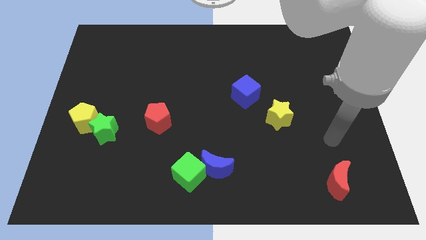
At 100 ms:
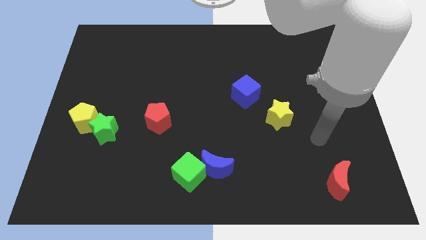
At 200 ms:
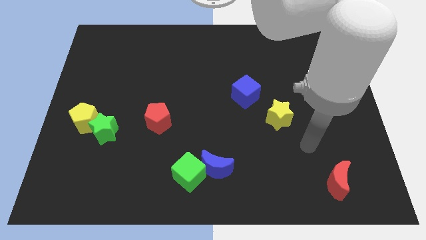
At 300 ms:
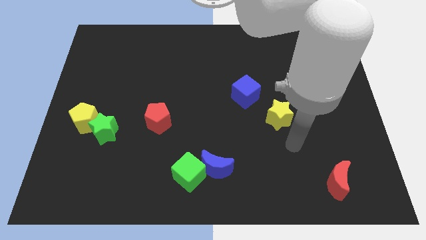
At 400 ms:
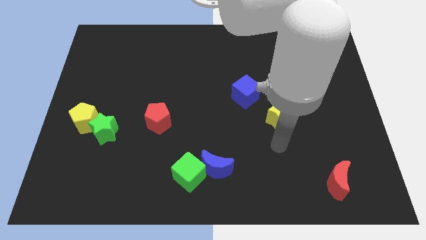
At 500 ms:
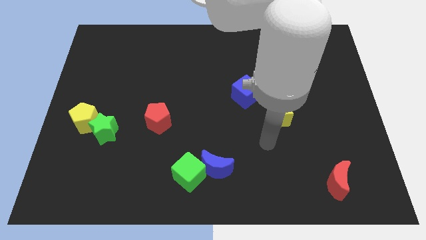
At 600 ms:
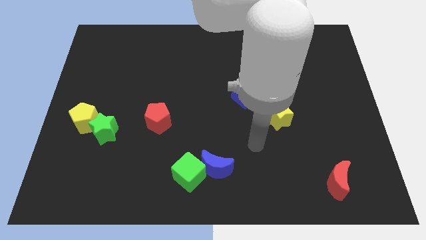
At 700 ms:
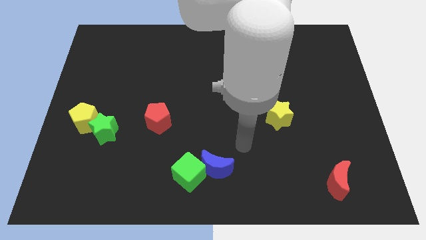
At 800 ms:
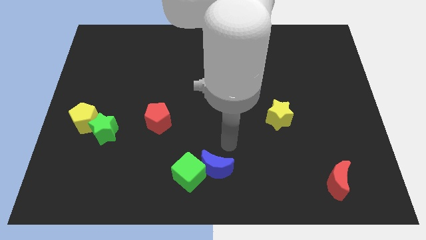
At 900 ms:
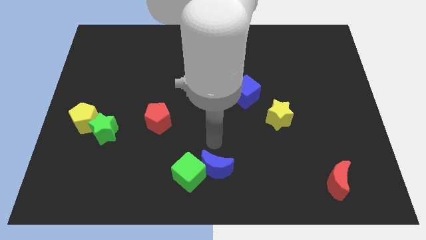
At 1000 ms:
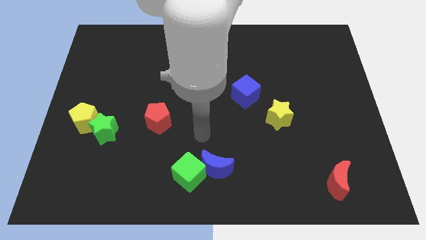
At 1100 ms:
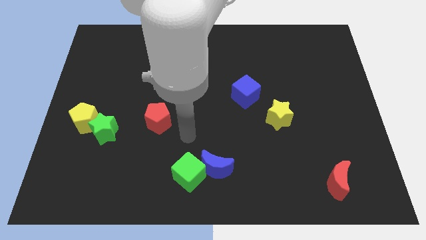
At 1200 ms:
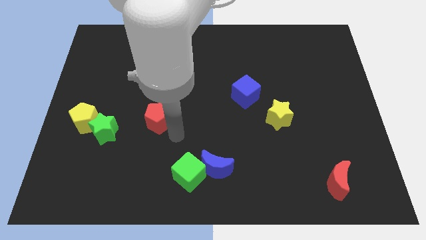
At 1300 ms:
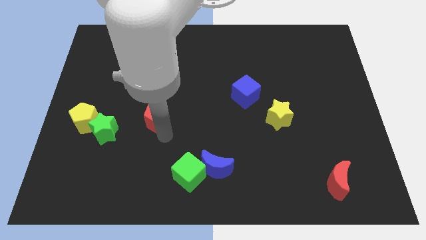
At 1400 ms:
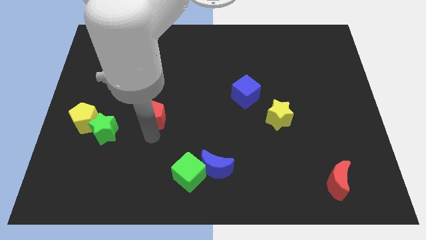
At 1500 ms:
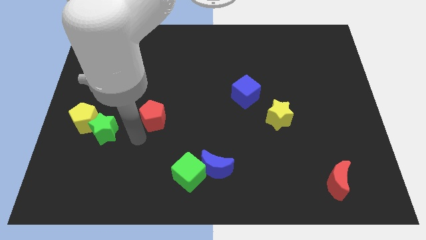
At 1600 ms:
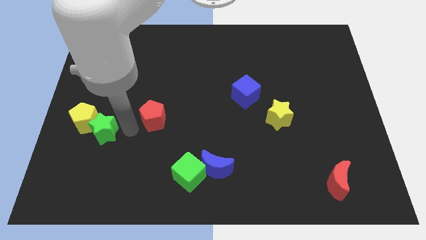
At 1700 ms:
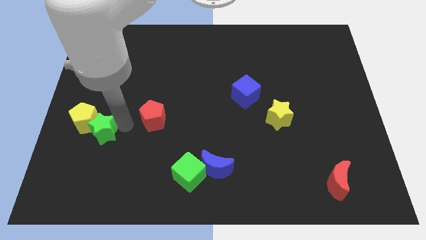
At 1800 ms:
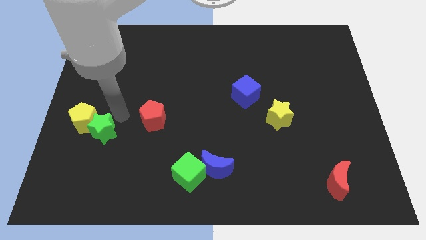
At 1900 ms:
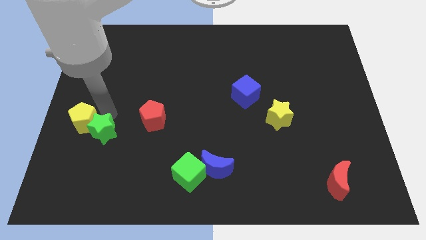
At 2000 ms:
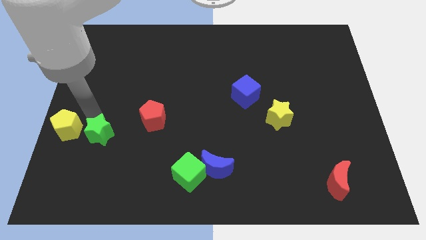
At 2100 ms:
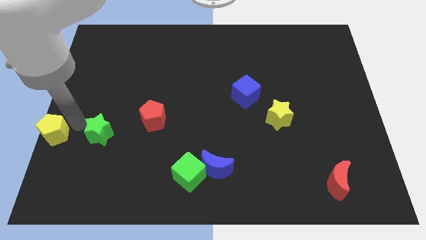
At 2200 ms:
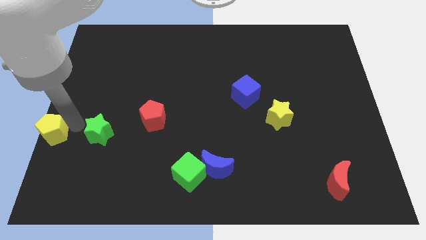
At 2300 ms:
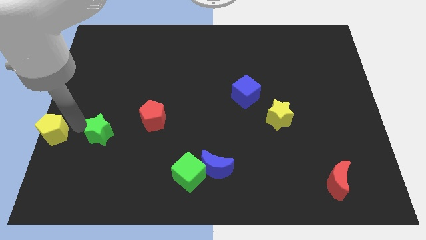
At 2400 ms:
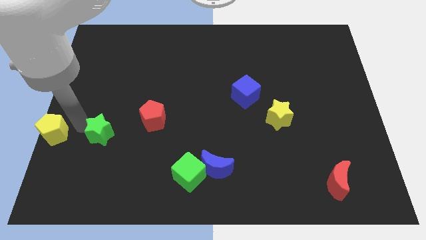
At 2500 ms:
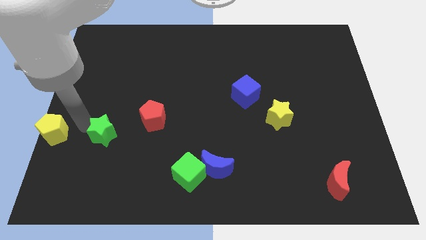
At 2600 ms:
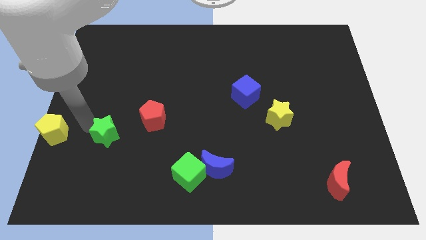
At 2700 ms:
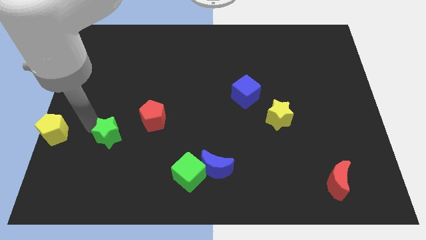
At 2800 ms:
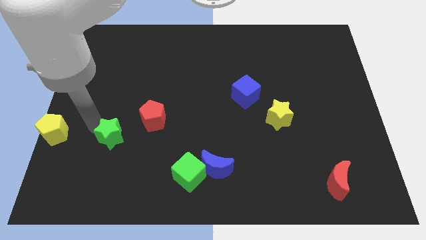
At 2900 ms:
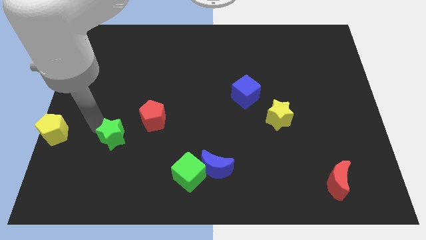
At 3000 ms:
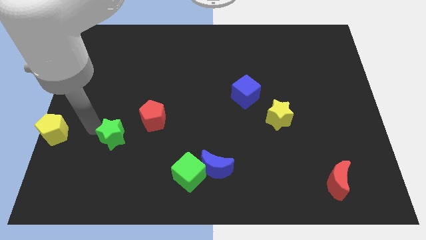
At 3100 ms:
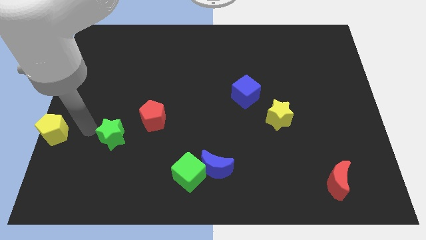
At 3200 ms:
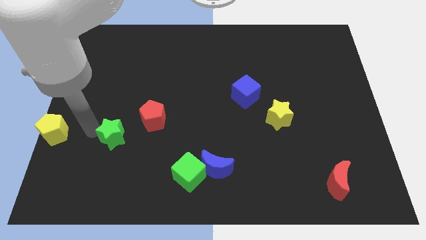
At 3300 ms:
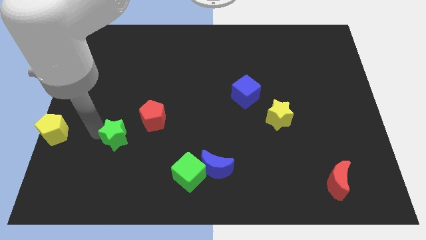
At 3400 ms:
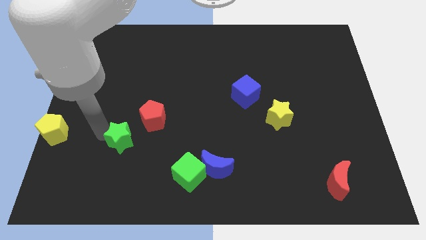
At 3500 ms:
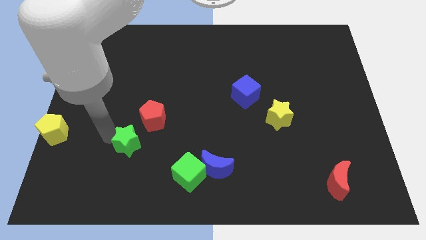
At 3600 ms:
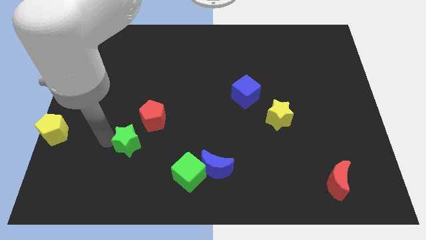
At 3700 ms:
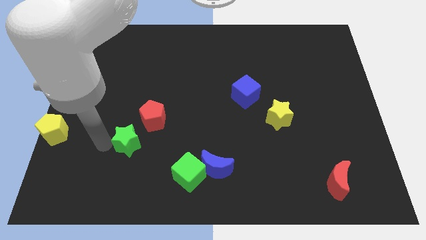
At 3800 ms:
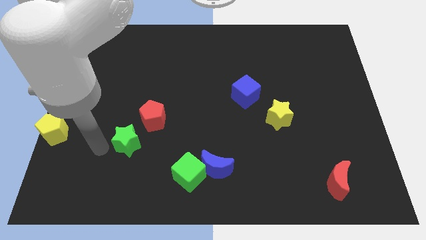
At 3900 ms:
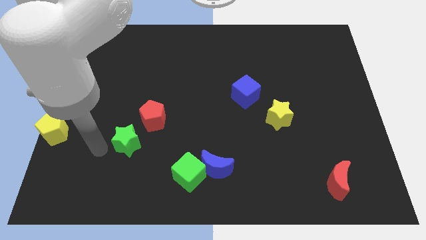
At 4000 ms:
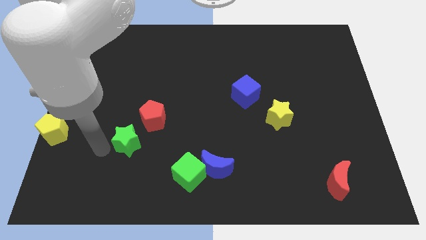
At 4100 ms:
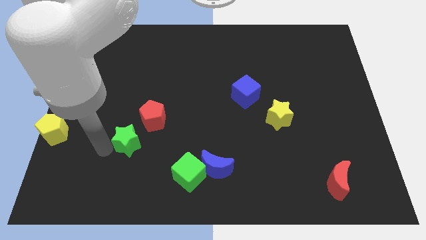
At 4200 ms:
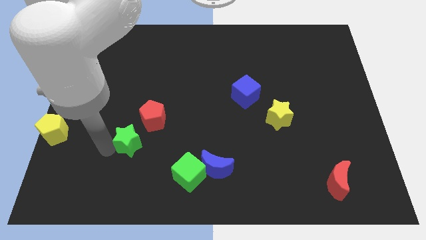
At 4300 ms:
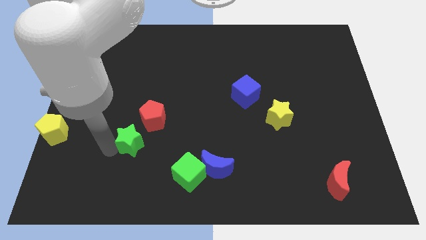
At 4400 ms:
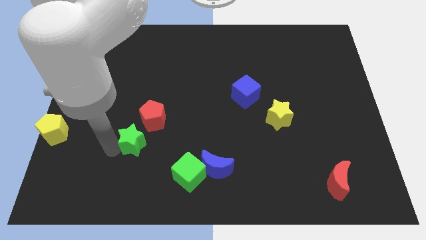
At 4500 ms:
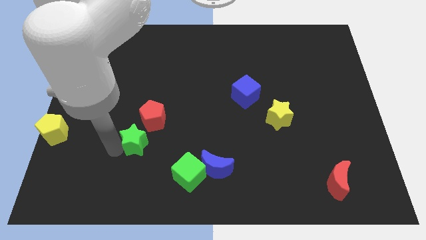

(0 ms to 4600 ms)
slightly move the green star right

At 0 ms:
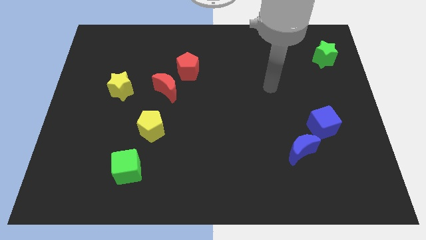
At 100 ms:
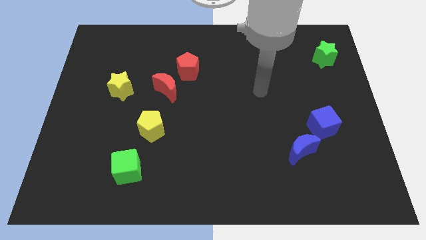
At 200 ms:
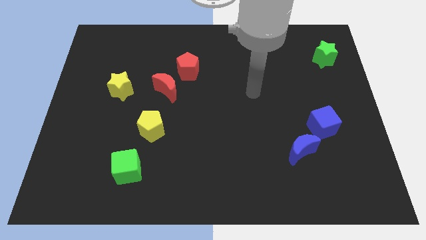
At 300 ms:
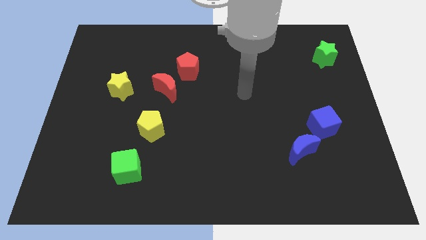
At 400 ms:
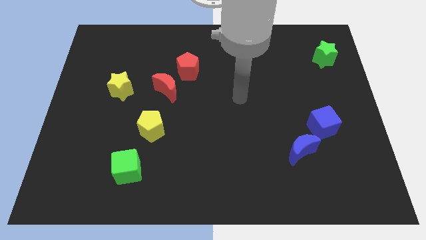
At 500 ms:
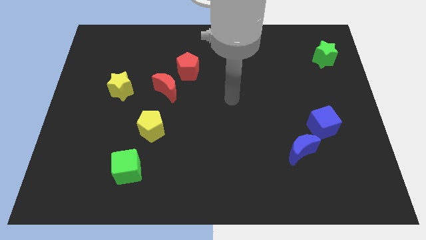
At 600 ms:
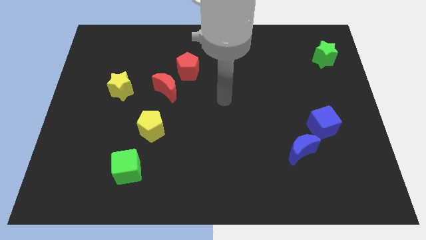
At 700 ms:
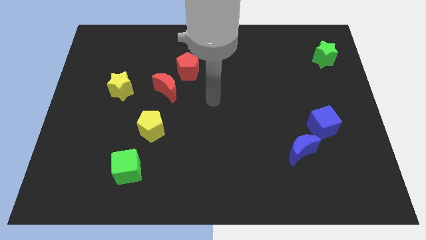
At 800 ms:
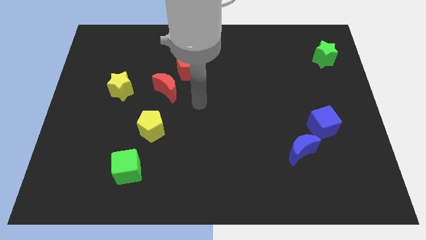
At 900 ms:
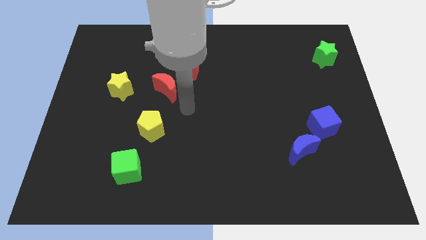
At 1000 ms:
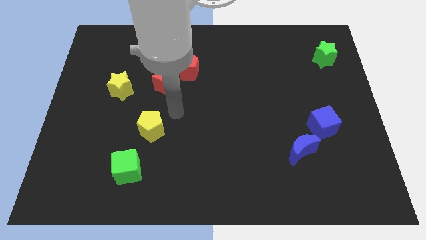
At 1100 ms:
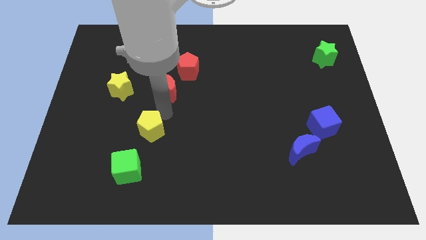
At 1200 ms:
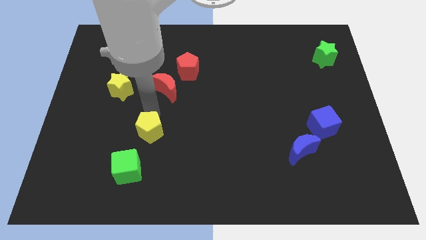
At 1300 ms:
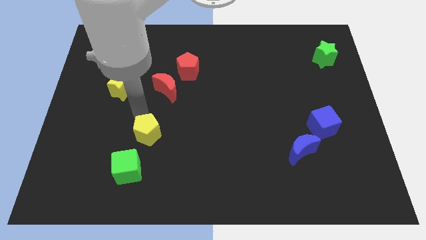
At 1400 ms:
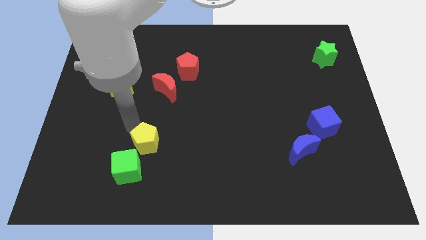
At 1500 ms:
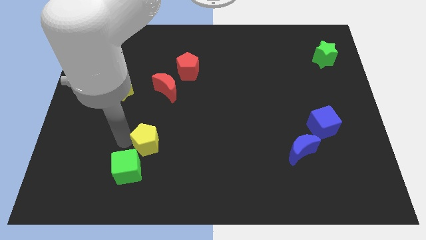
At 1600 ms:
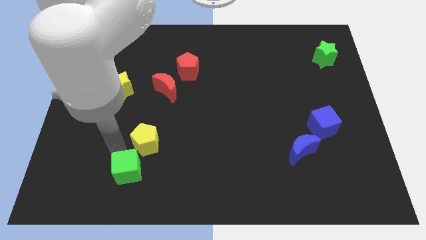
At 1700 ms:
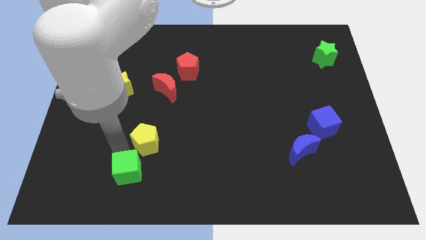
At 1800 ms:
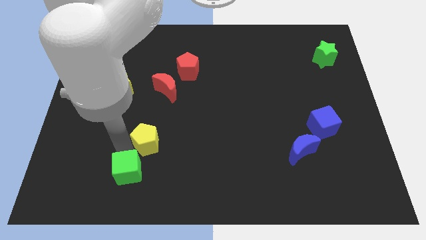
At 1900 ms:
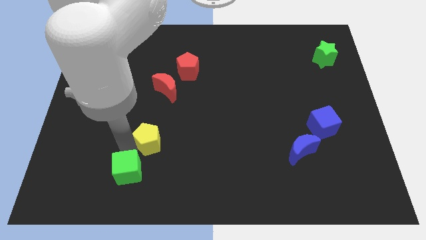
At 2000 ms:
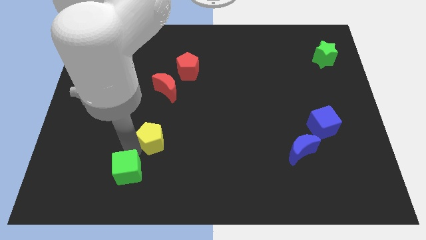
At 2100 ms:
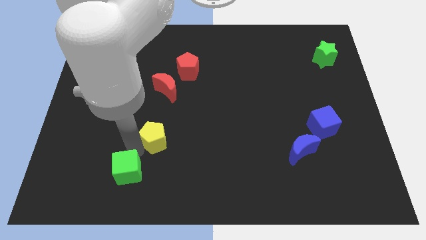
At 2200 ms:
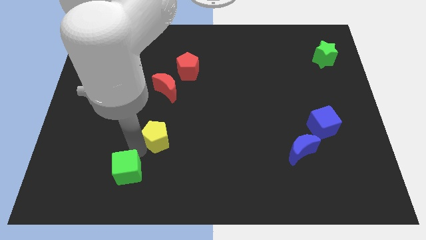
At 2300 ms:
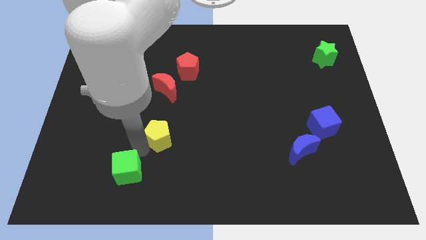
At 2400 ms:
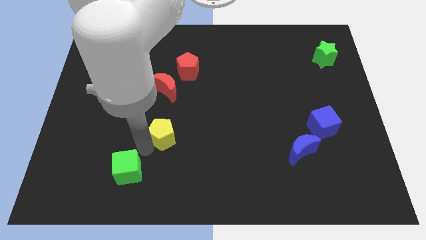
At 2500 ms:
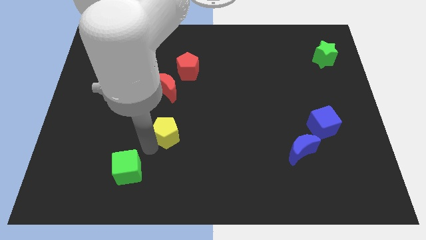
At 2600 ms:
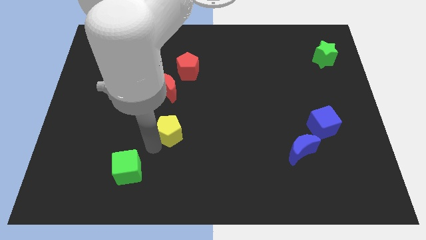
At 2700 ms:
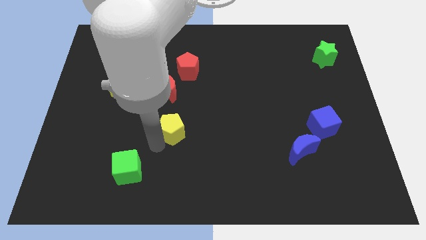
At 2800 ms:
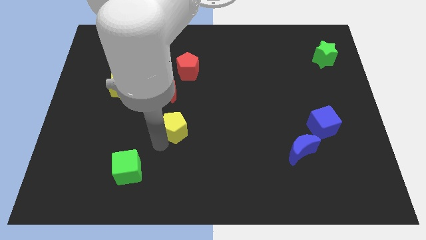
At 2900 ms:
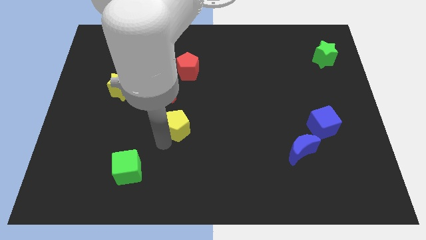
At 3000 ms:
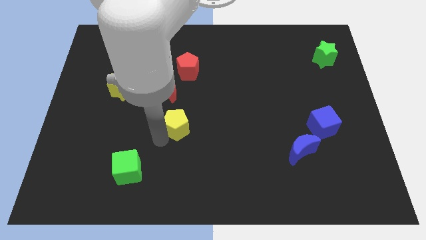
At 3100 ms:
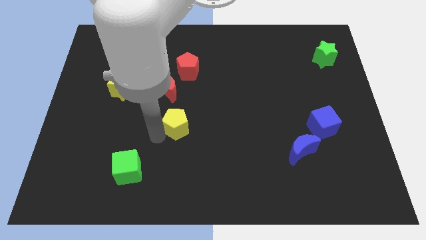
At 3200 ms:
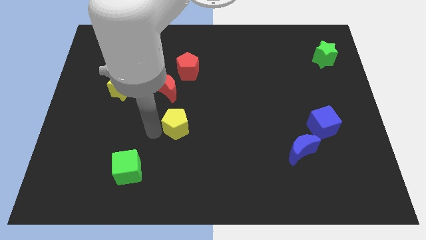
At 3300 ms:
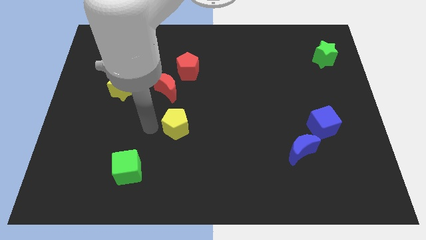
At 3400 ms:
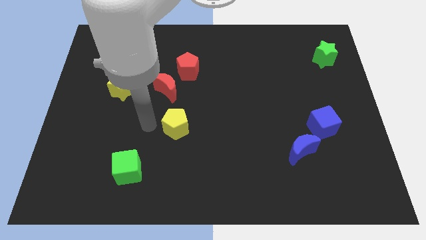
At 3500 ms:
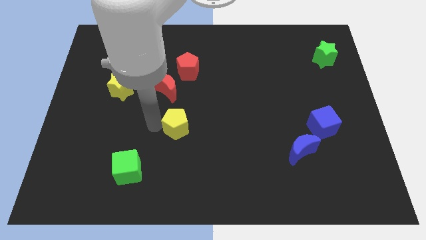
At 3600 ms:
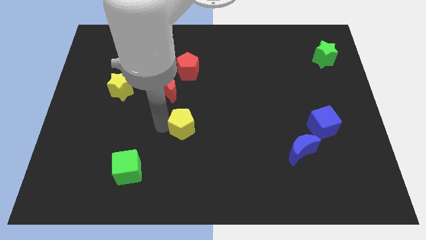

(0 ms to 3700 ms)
slightly push the yellow pentagon right
